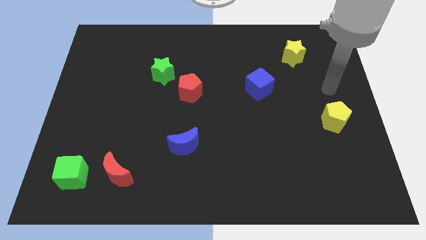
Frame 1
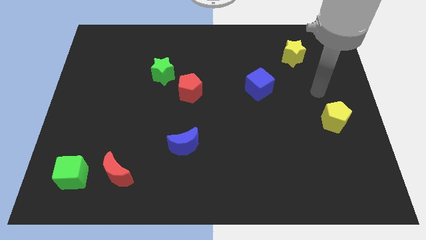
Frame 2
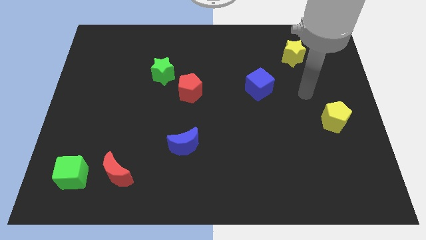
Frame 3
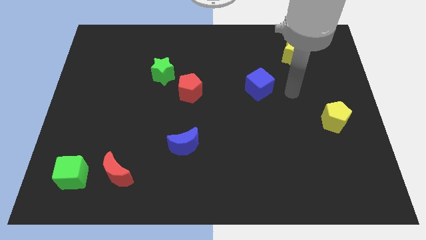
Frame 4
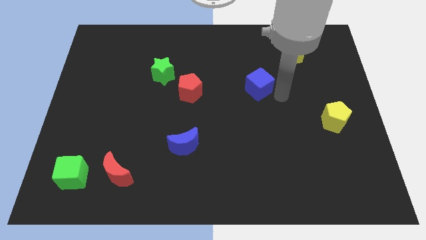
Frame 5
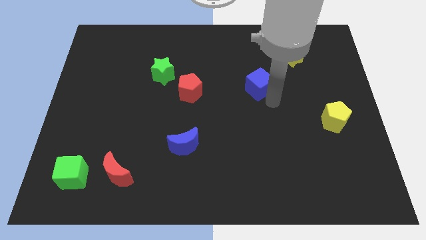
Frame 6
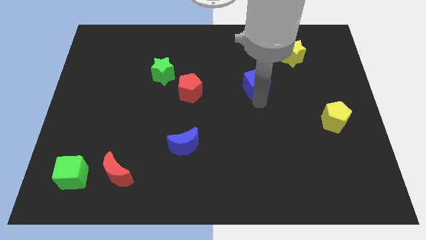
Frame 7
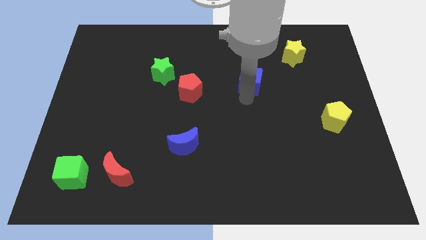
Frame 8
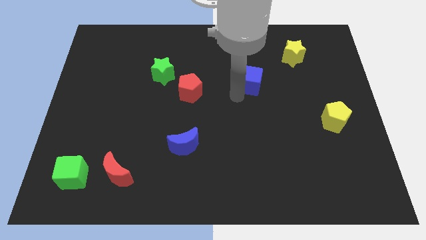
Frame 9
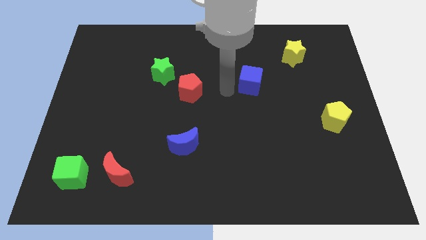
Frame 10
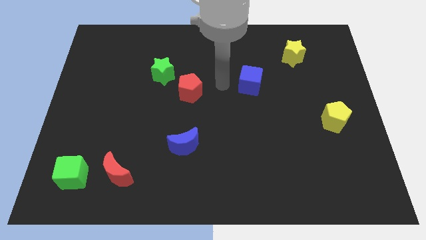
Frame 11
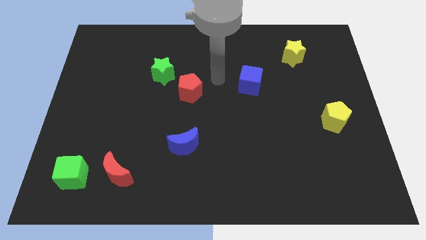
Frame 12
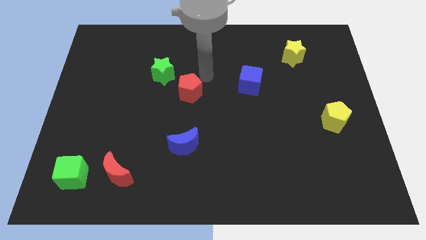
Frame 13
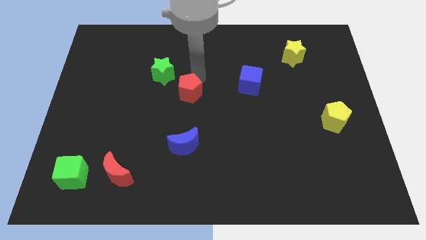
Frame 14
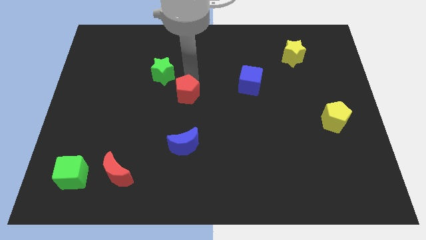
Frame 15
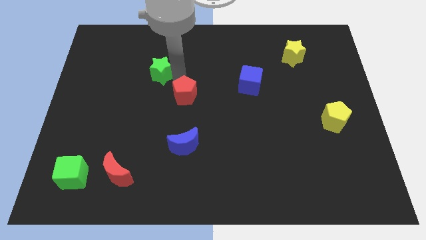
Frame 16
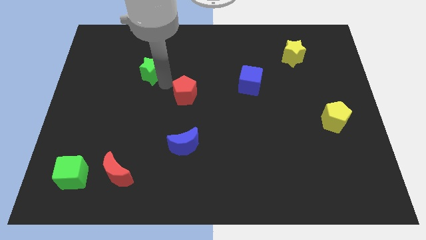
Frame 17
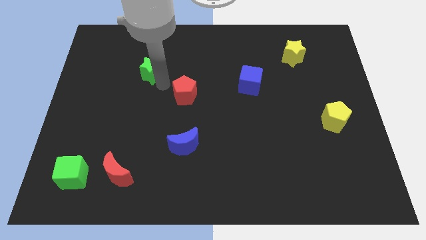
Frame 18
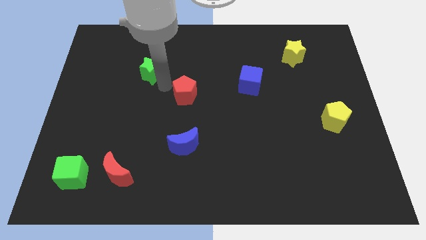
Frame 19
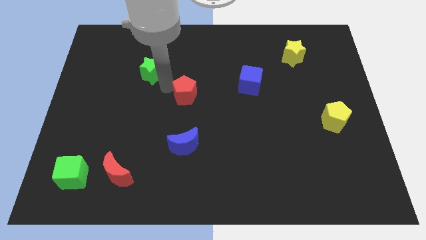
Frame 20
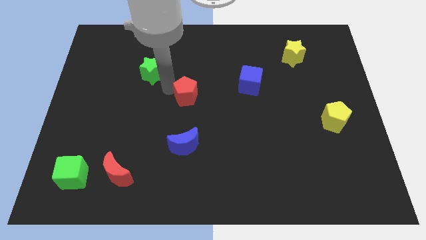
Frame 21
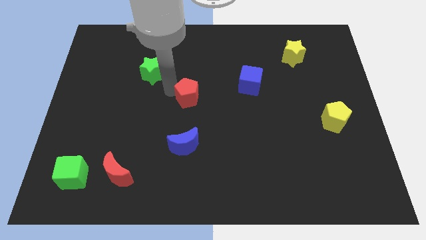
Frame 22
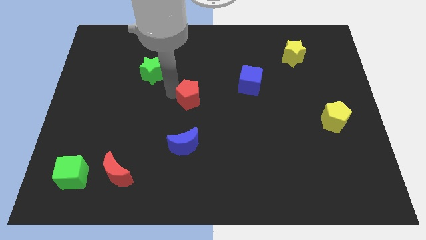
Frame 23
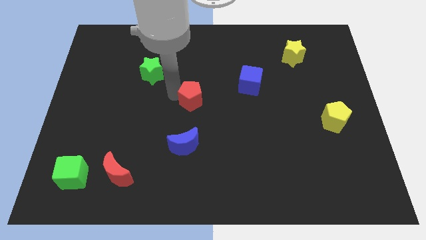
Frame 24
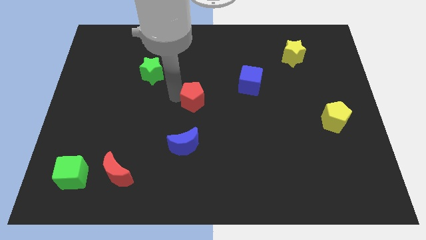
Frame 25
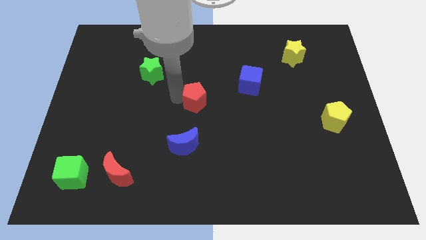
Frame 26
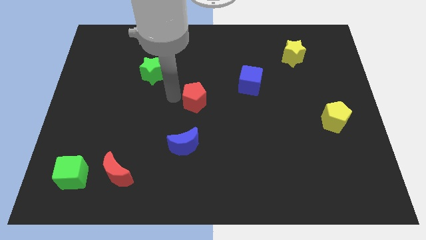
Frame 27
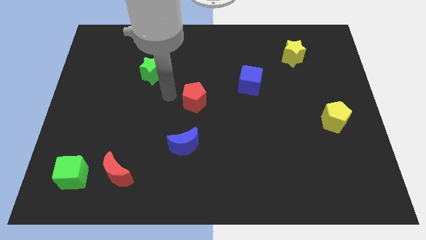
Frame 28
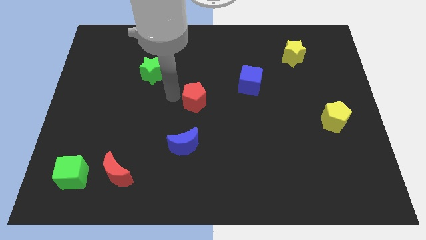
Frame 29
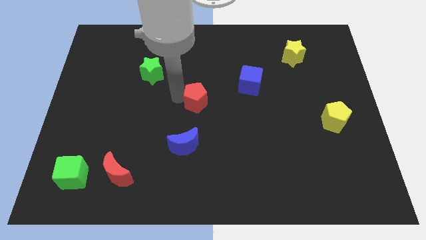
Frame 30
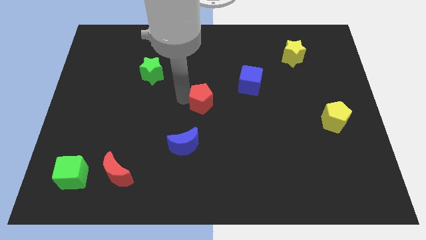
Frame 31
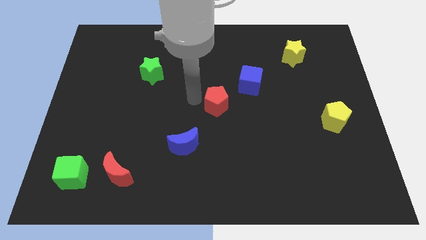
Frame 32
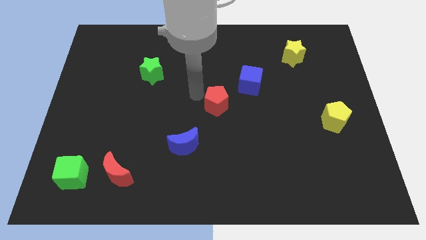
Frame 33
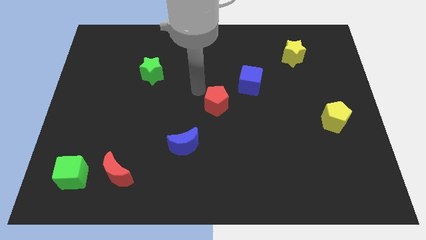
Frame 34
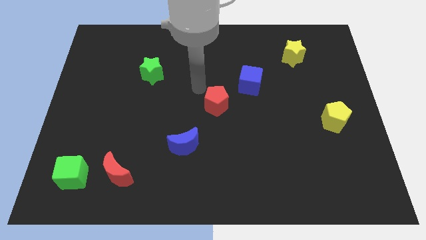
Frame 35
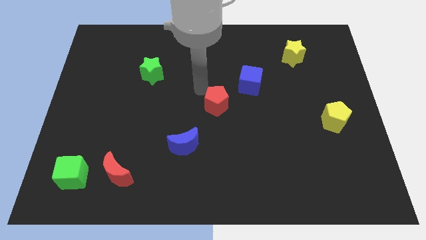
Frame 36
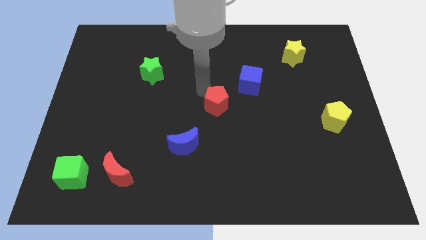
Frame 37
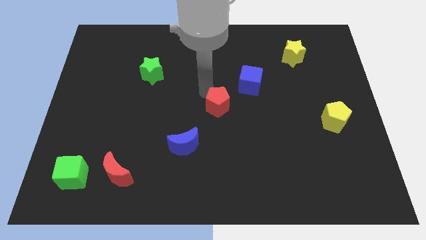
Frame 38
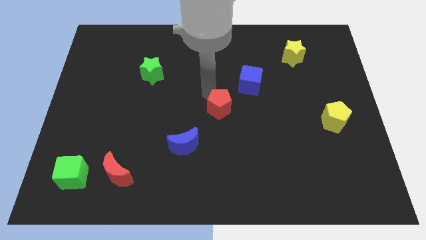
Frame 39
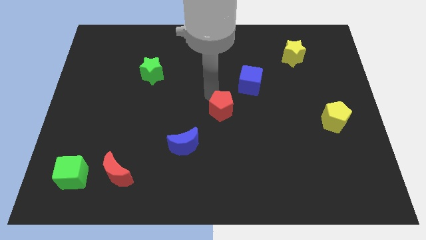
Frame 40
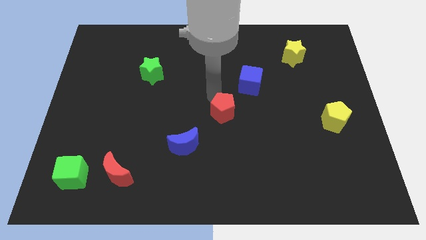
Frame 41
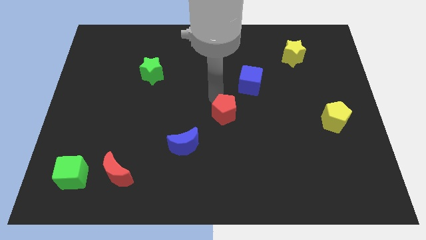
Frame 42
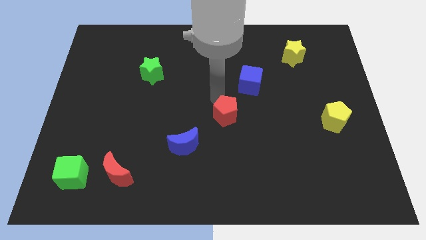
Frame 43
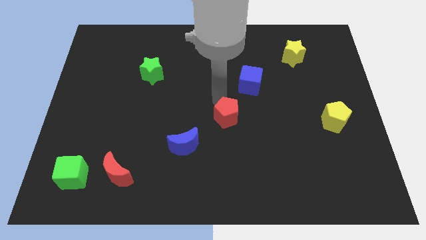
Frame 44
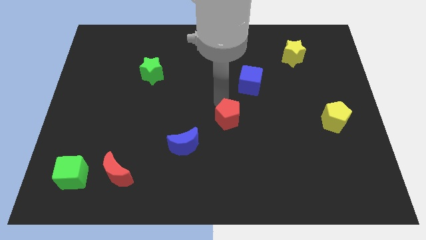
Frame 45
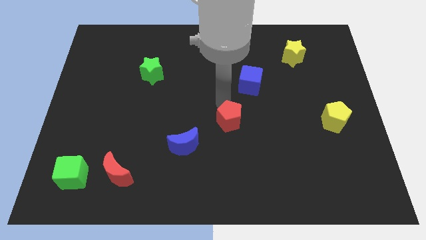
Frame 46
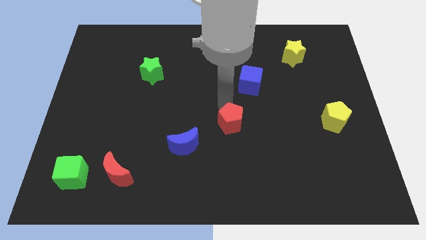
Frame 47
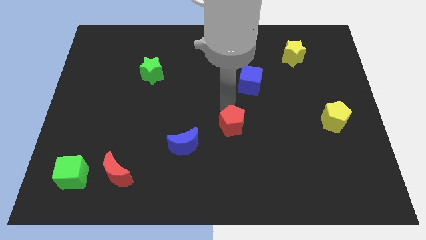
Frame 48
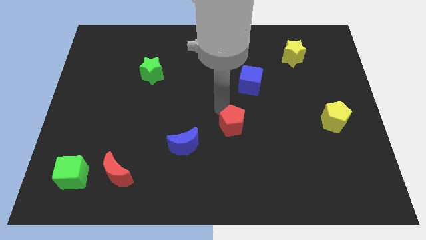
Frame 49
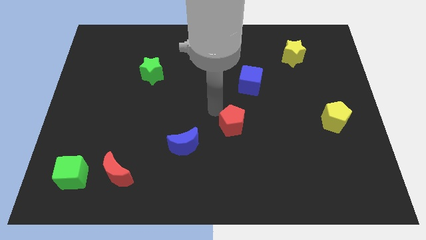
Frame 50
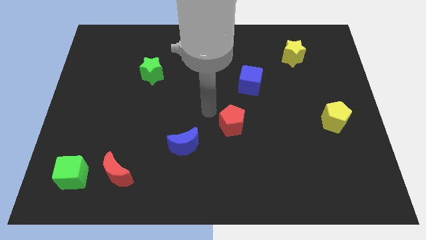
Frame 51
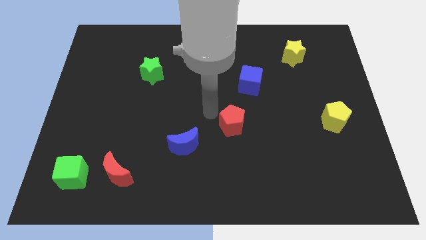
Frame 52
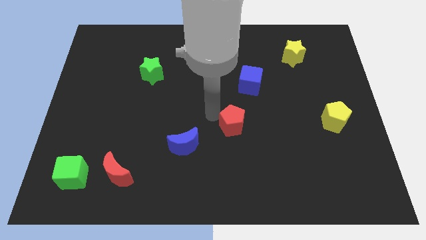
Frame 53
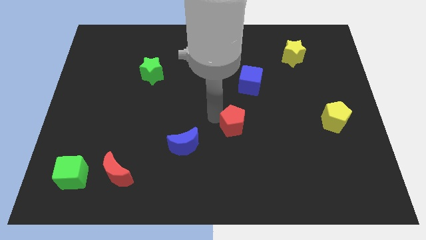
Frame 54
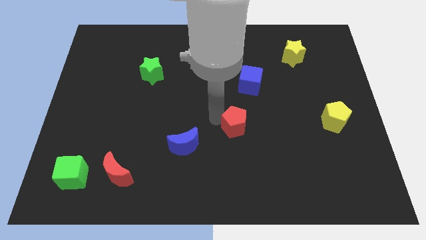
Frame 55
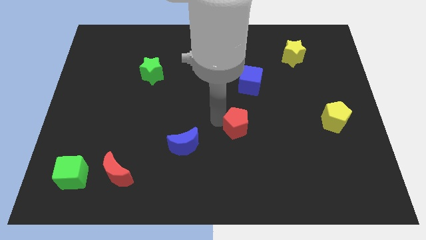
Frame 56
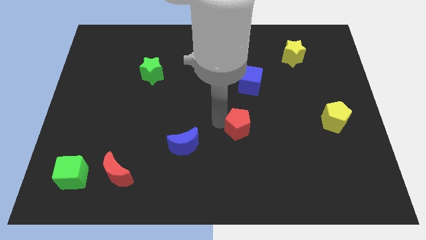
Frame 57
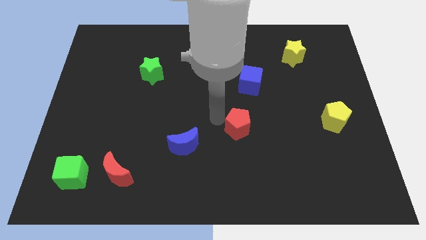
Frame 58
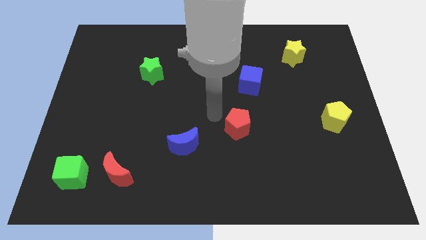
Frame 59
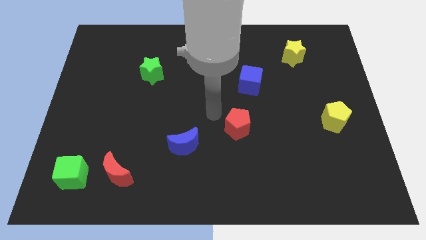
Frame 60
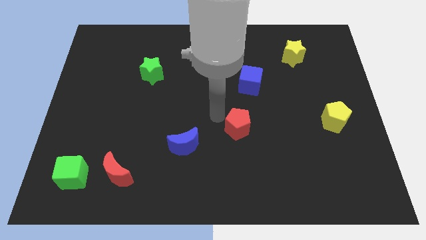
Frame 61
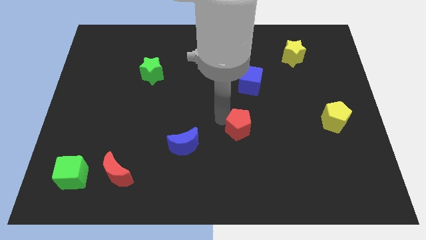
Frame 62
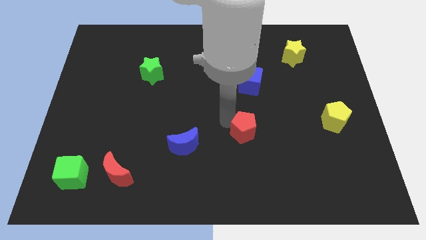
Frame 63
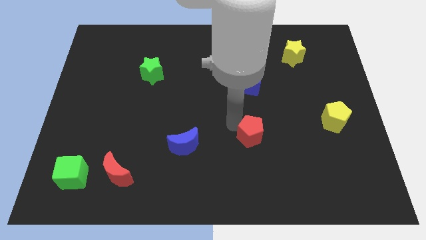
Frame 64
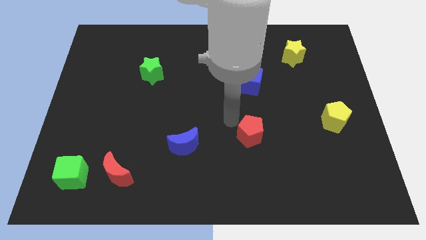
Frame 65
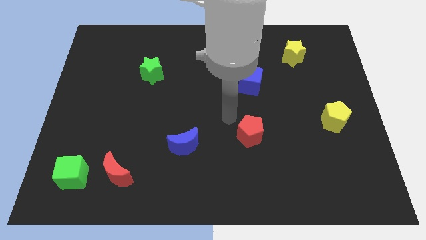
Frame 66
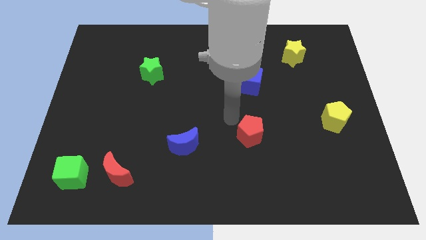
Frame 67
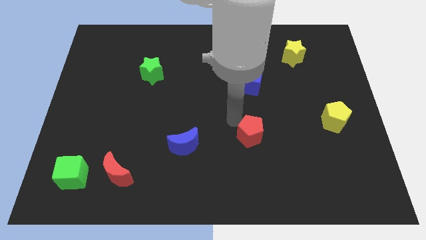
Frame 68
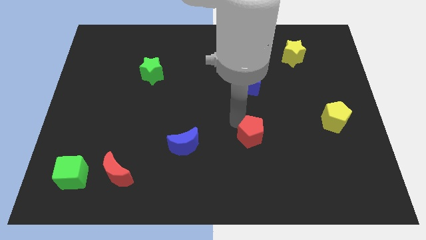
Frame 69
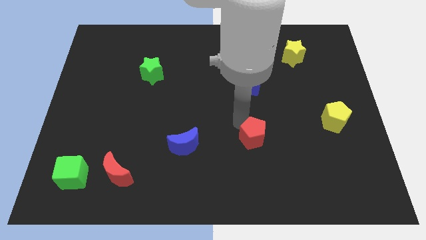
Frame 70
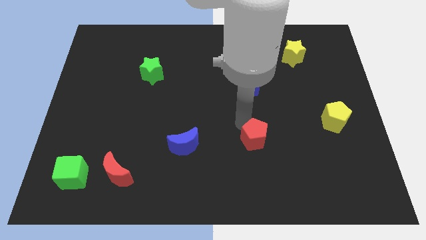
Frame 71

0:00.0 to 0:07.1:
move the red pentagon down and right

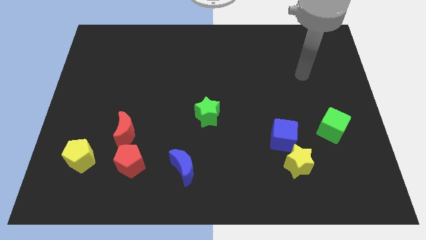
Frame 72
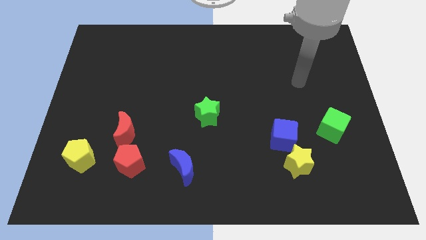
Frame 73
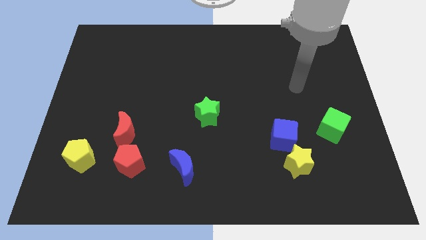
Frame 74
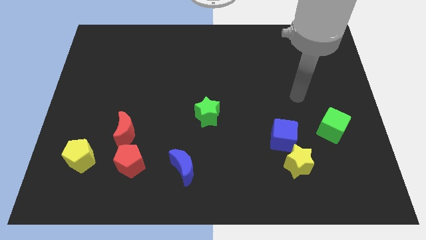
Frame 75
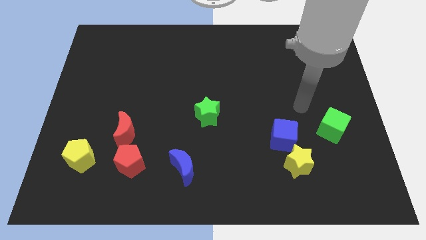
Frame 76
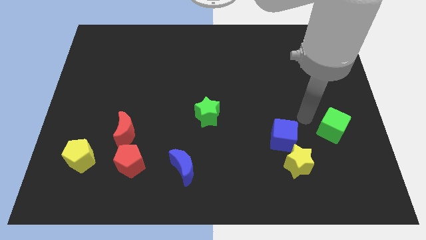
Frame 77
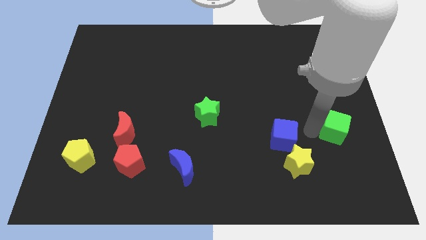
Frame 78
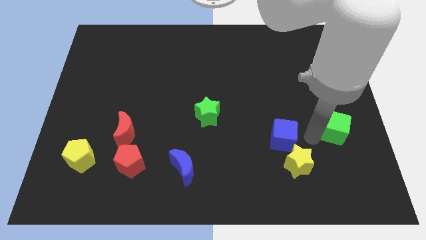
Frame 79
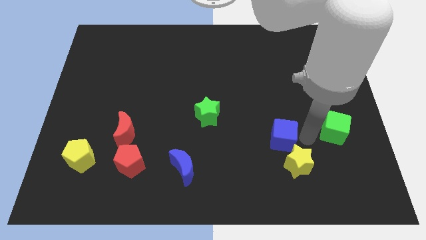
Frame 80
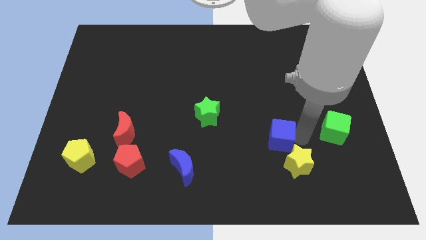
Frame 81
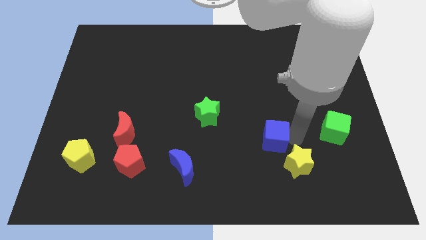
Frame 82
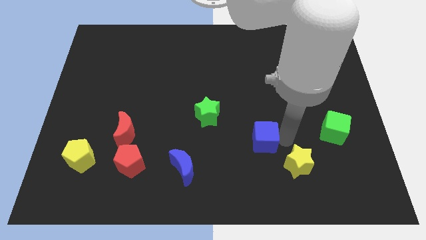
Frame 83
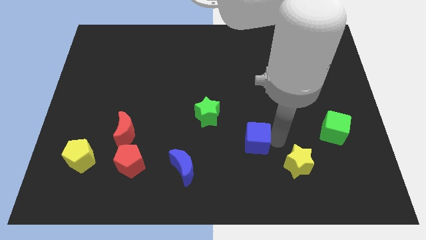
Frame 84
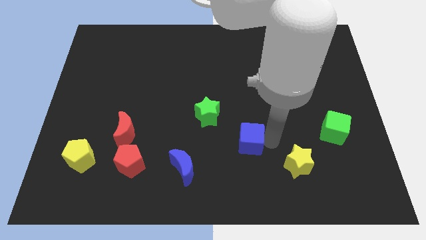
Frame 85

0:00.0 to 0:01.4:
slightly move the blue cube left
